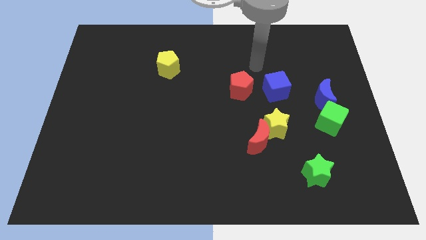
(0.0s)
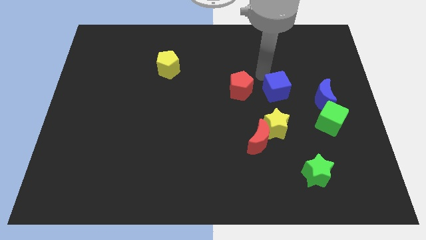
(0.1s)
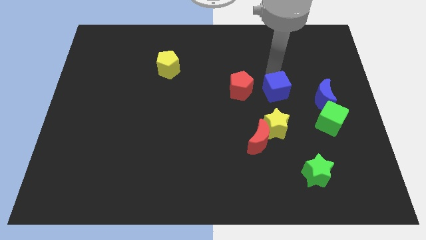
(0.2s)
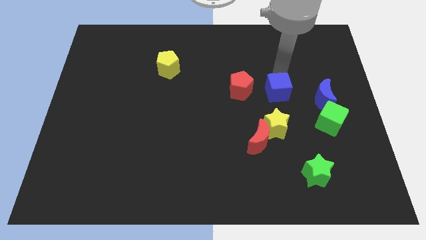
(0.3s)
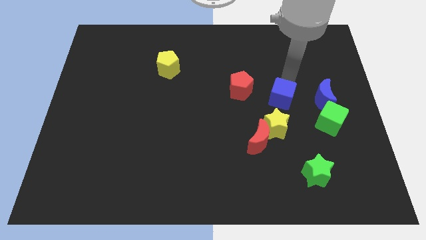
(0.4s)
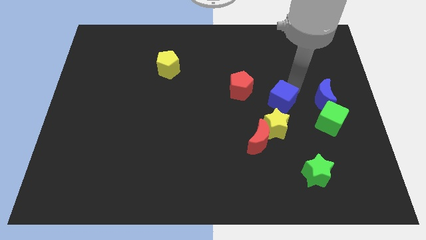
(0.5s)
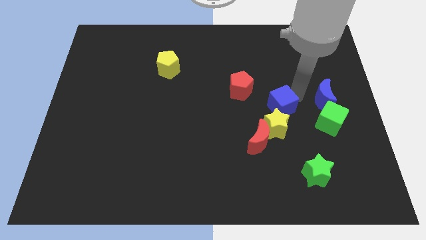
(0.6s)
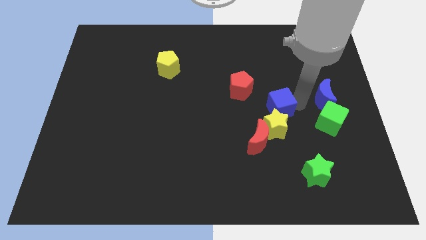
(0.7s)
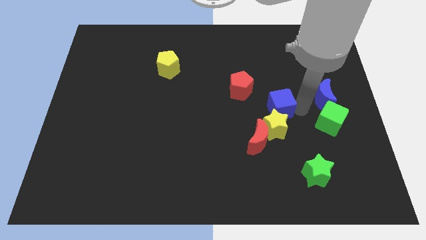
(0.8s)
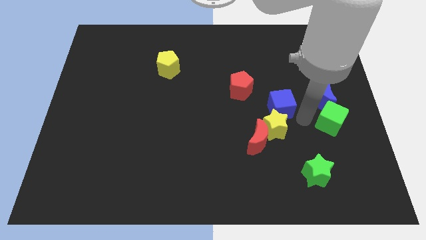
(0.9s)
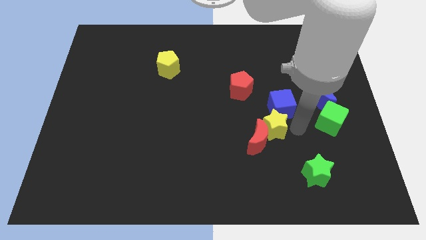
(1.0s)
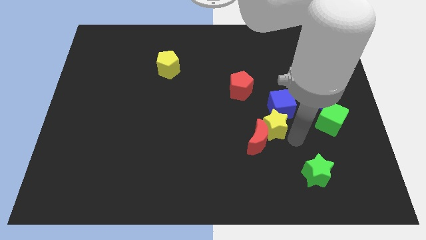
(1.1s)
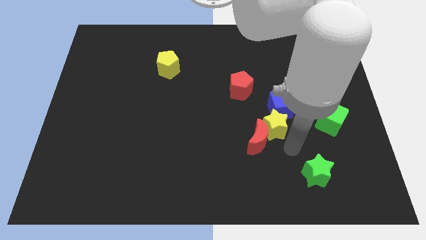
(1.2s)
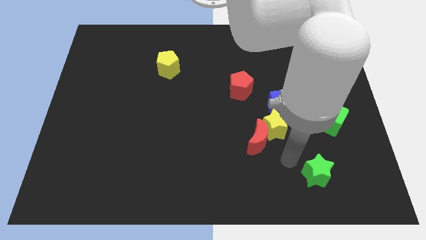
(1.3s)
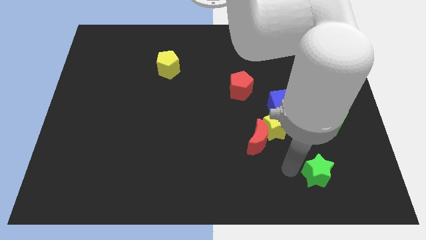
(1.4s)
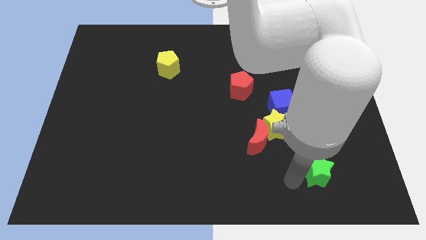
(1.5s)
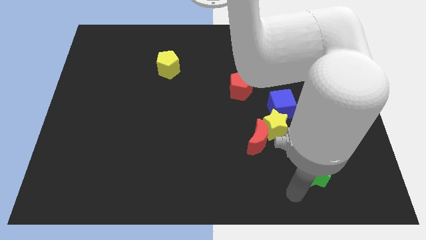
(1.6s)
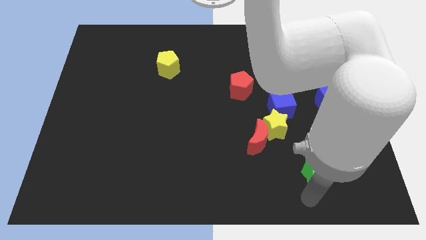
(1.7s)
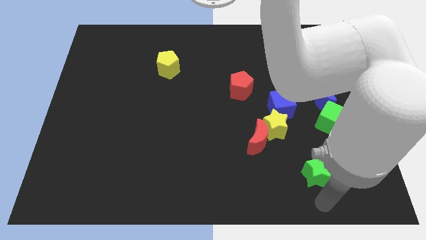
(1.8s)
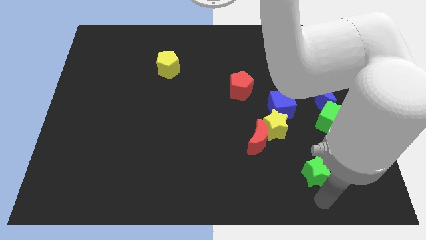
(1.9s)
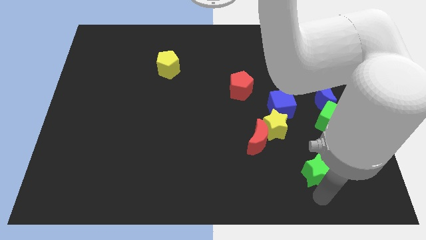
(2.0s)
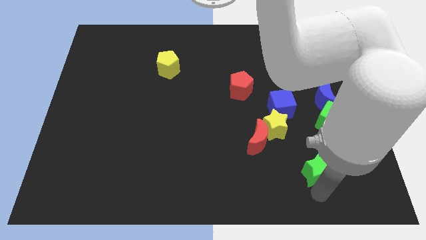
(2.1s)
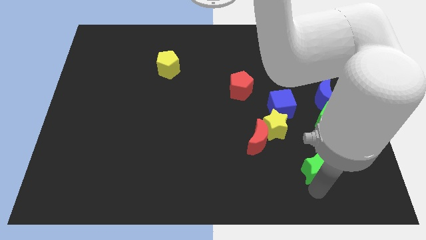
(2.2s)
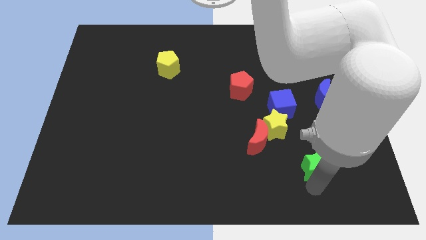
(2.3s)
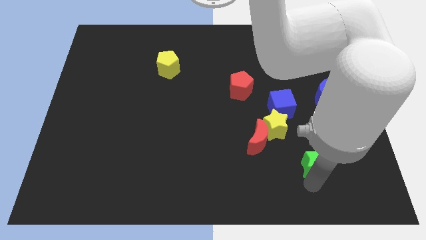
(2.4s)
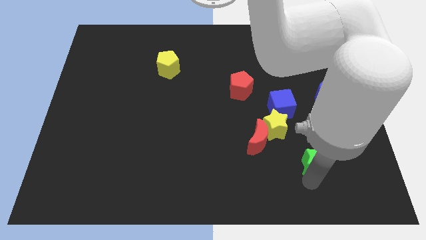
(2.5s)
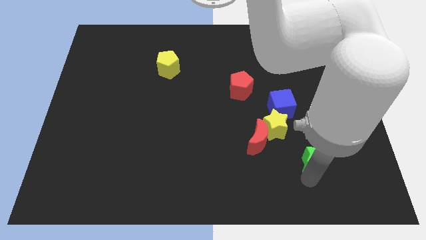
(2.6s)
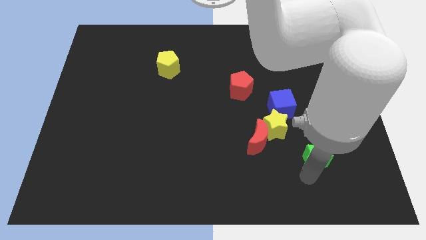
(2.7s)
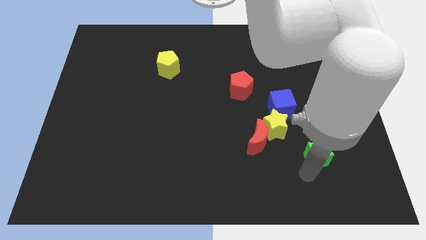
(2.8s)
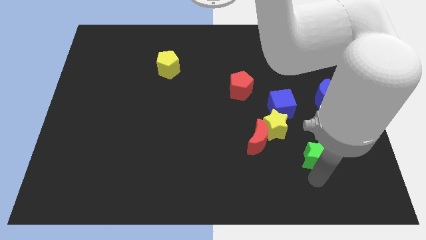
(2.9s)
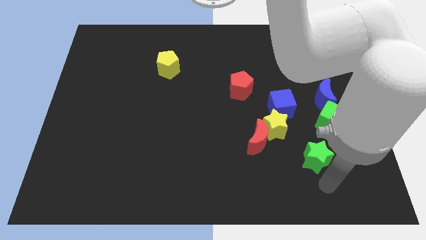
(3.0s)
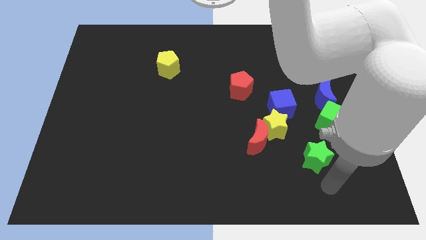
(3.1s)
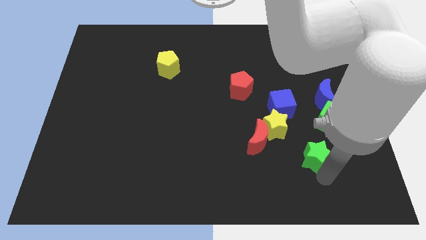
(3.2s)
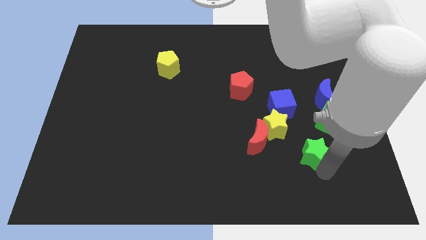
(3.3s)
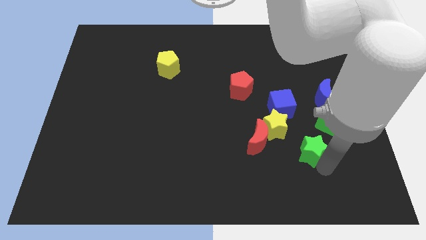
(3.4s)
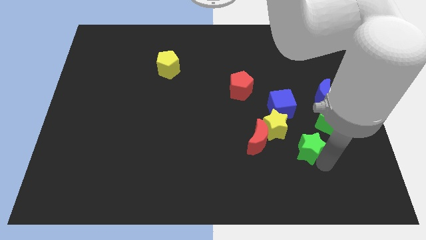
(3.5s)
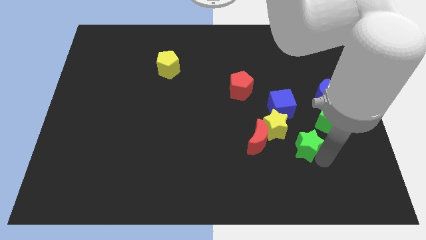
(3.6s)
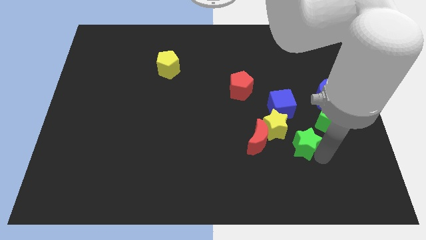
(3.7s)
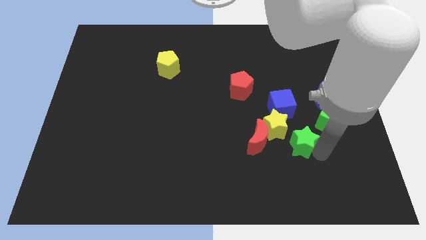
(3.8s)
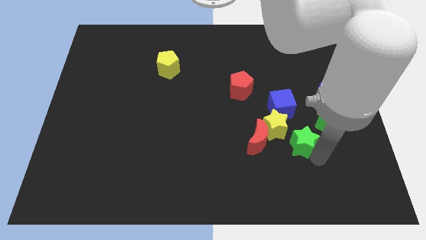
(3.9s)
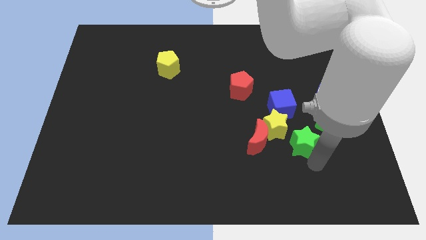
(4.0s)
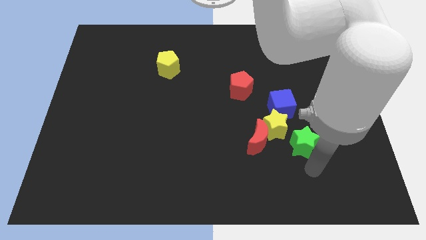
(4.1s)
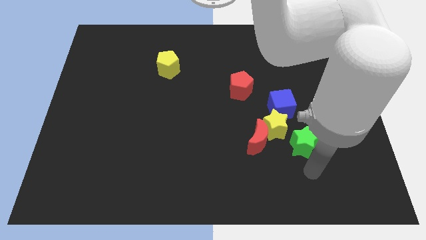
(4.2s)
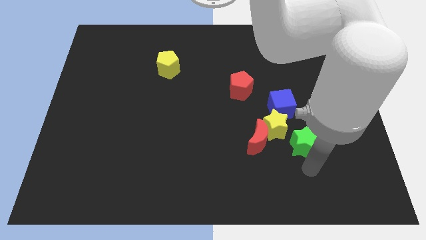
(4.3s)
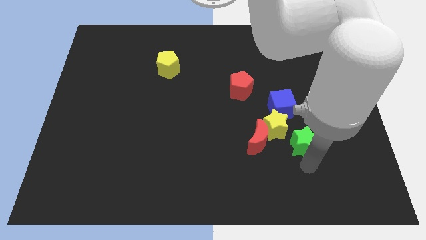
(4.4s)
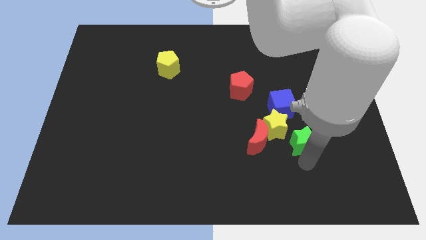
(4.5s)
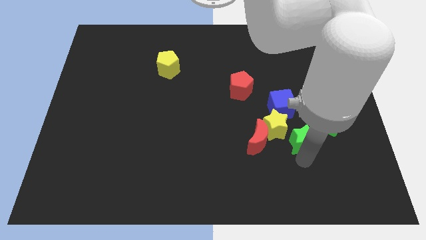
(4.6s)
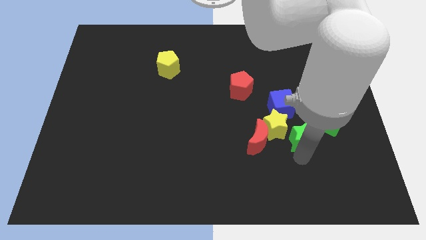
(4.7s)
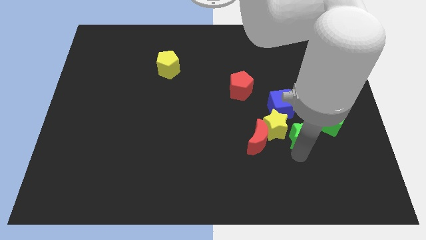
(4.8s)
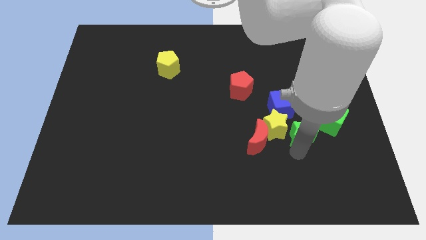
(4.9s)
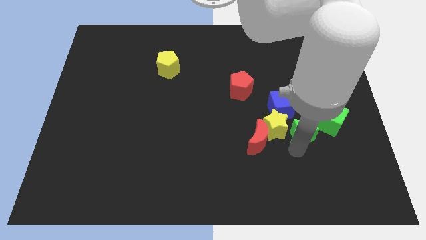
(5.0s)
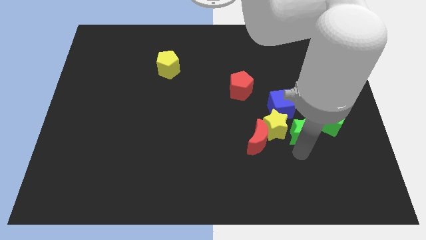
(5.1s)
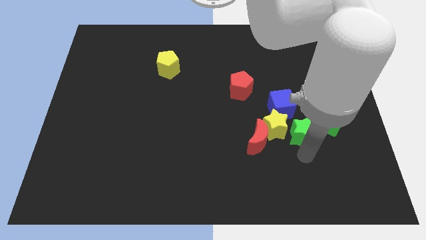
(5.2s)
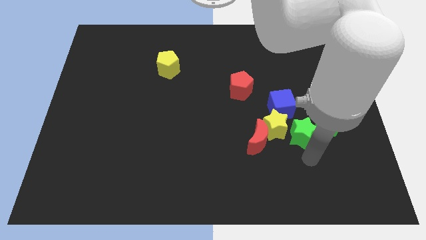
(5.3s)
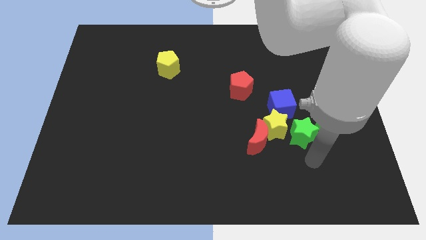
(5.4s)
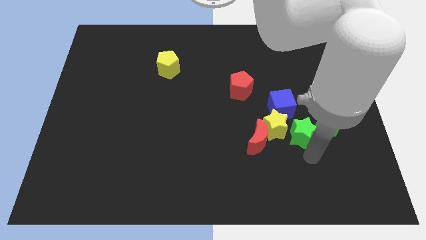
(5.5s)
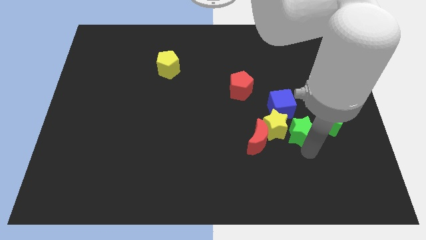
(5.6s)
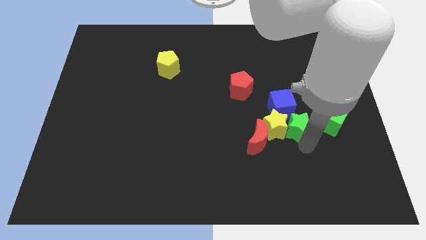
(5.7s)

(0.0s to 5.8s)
push the green star diagonally up and to the right of the red moon

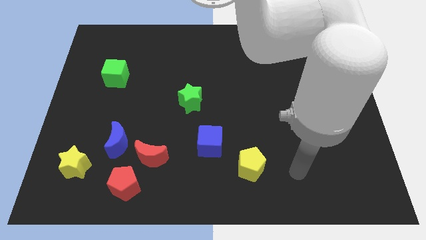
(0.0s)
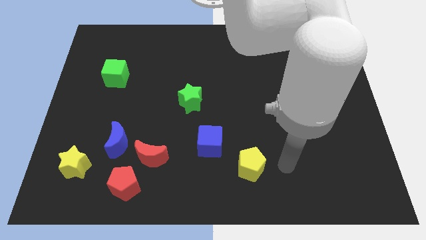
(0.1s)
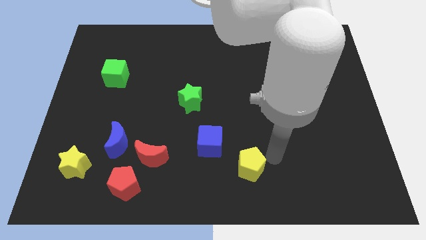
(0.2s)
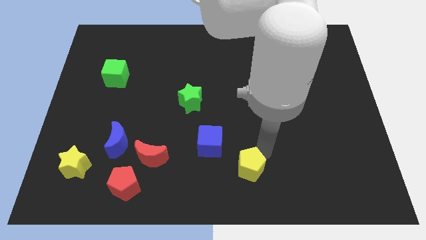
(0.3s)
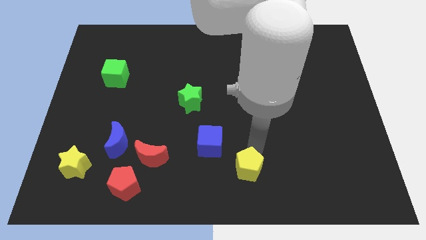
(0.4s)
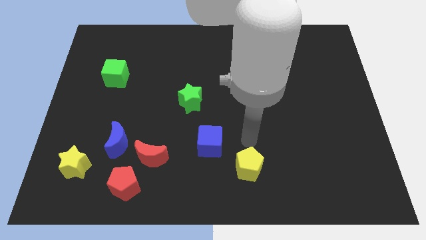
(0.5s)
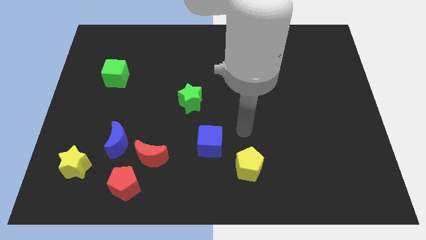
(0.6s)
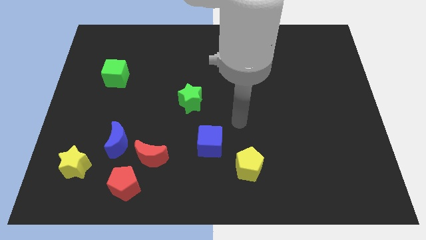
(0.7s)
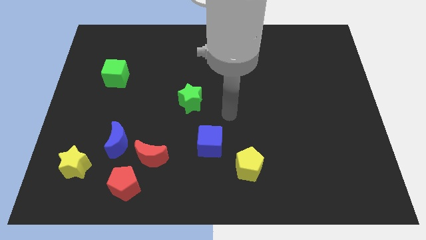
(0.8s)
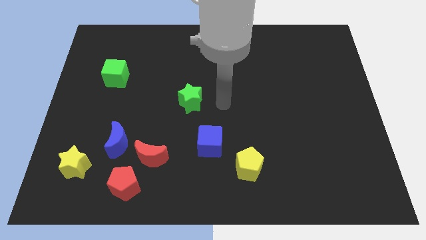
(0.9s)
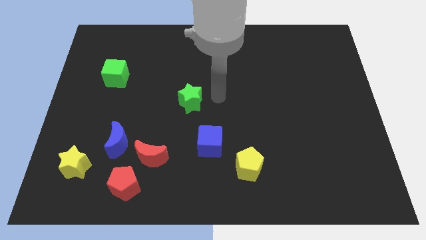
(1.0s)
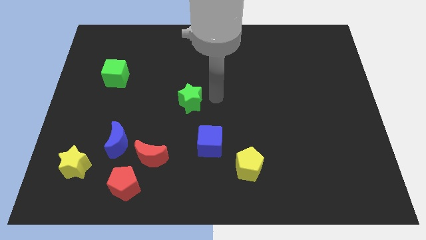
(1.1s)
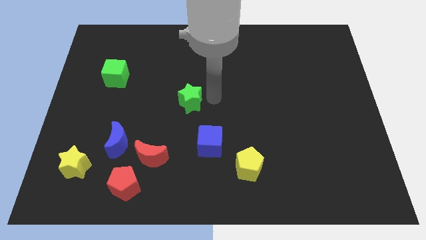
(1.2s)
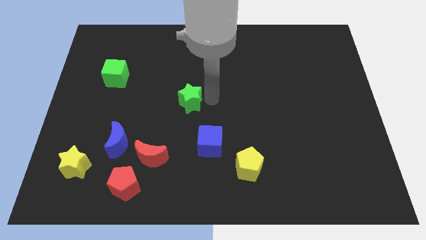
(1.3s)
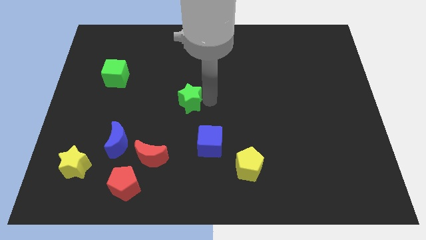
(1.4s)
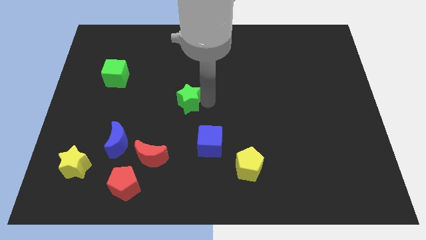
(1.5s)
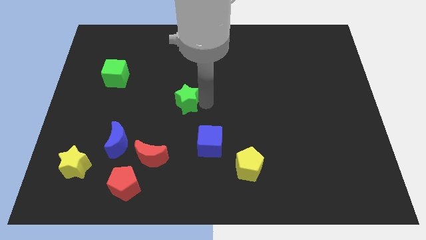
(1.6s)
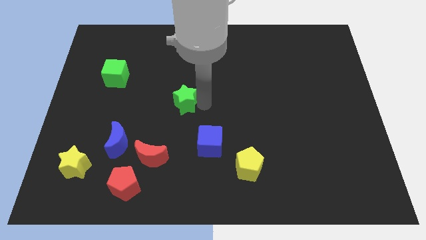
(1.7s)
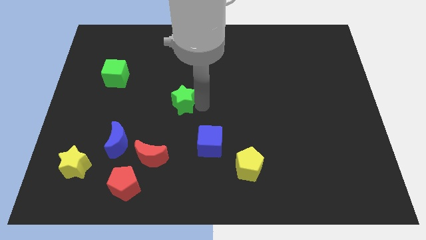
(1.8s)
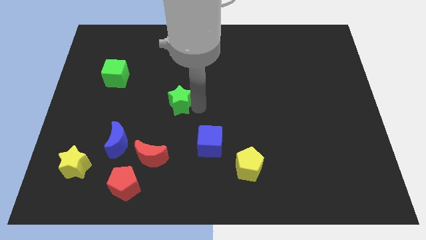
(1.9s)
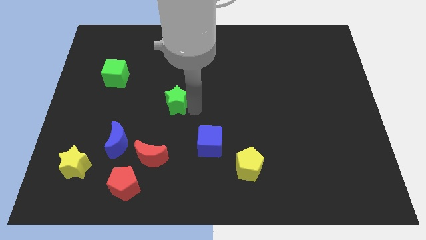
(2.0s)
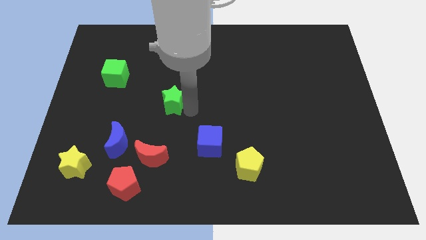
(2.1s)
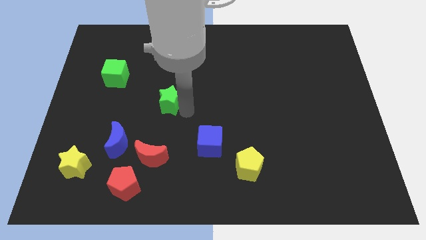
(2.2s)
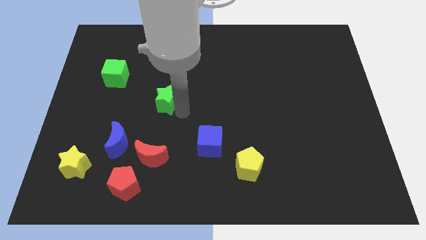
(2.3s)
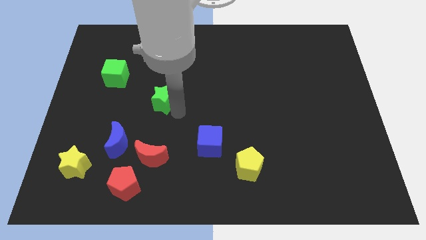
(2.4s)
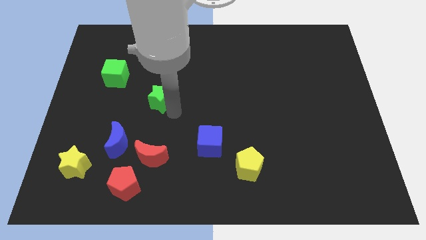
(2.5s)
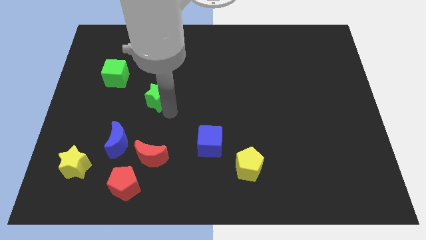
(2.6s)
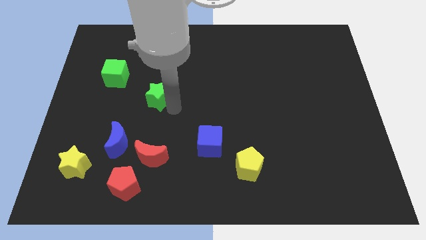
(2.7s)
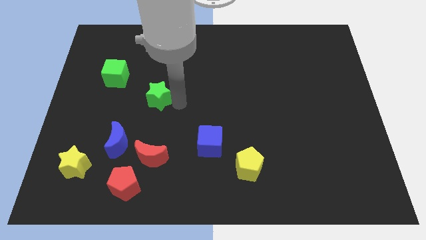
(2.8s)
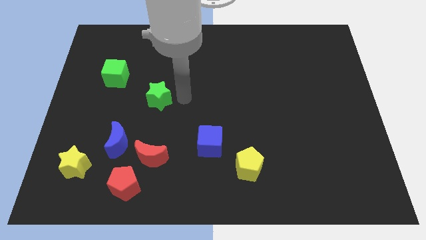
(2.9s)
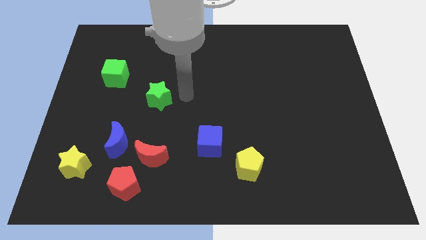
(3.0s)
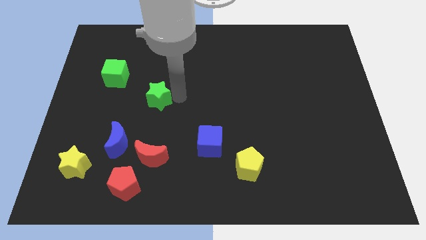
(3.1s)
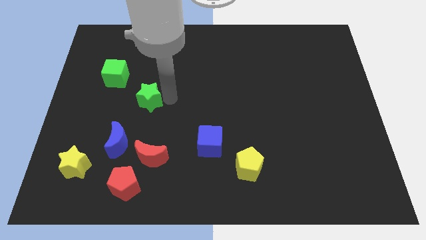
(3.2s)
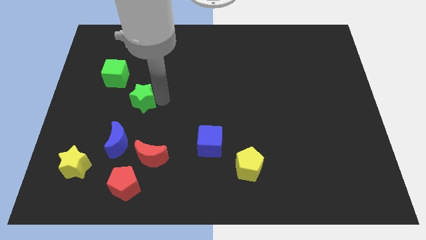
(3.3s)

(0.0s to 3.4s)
push the green star to the top of the blue moon
